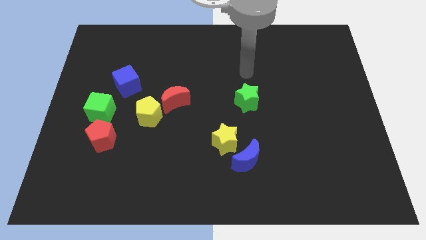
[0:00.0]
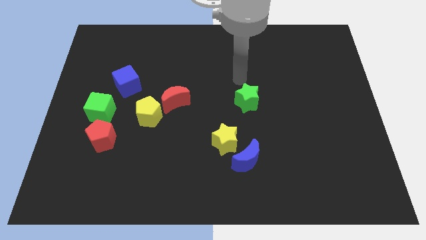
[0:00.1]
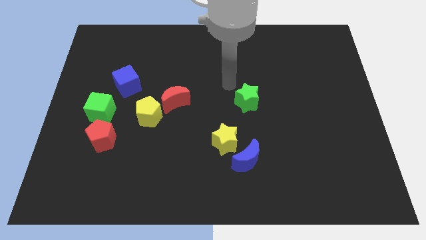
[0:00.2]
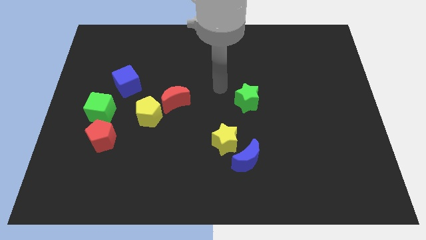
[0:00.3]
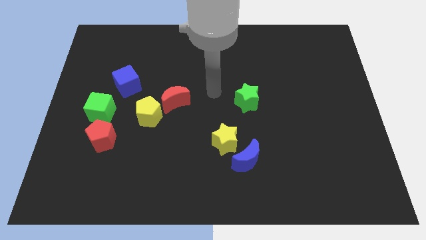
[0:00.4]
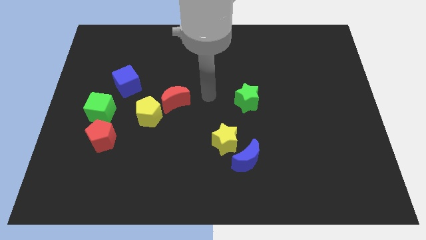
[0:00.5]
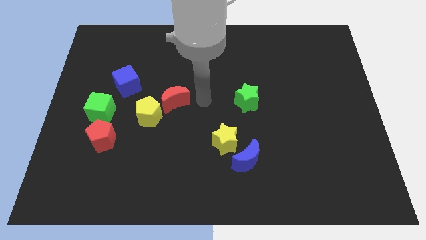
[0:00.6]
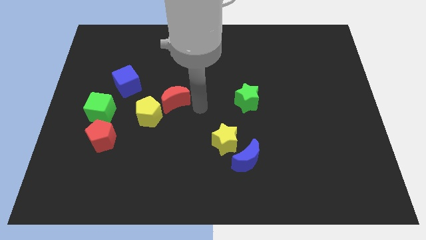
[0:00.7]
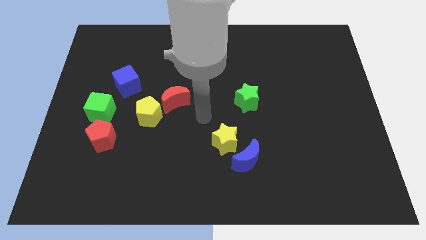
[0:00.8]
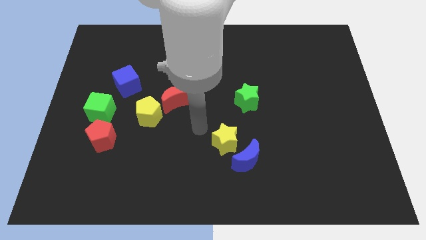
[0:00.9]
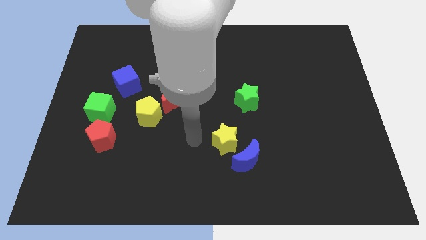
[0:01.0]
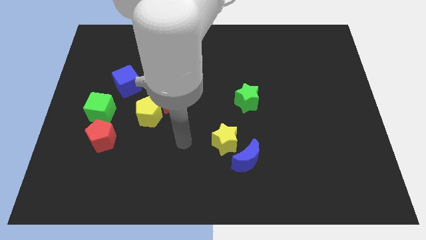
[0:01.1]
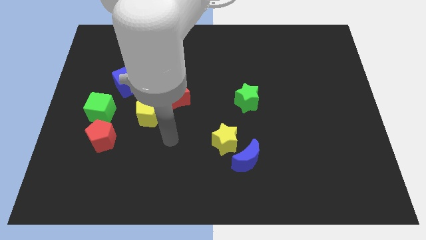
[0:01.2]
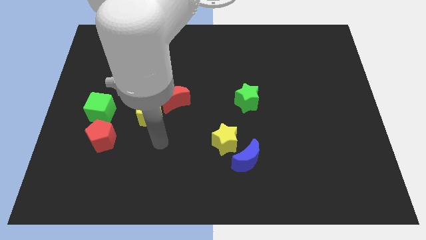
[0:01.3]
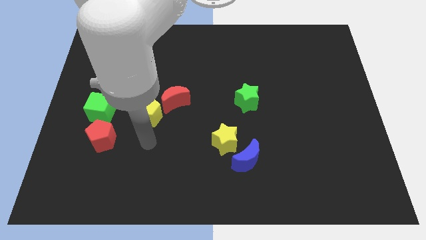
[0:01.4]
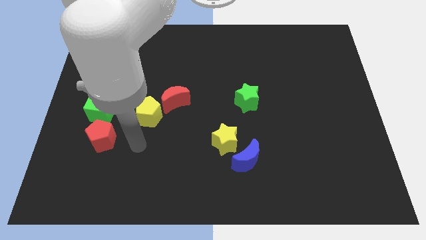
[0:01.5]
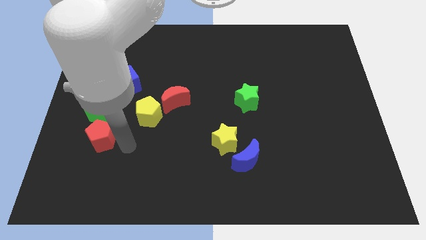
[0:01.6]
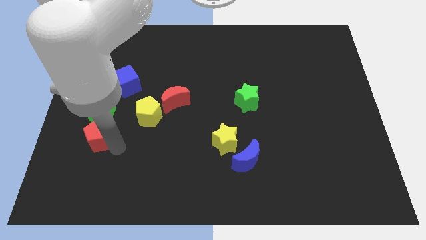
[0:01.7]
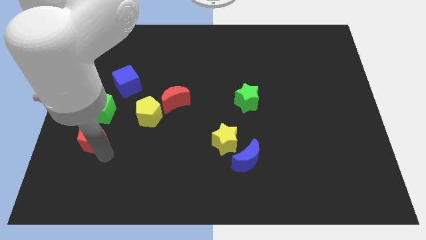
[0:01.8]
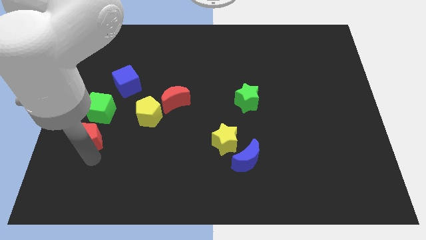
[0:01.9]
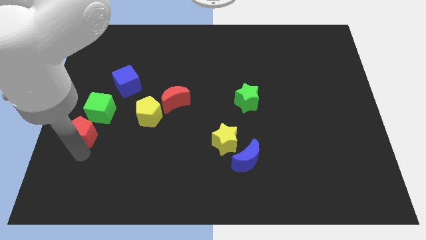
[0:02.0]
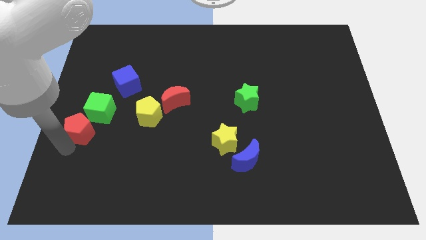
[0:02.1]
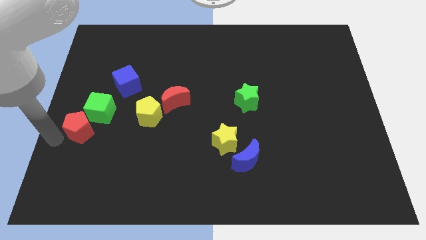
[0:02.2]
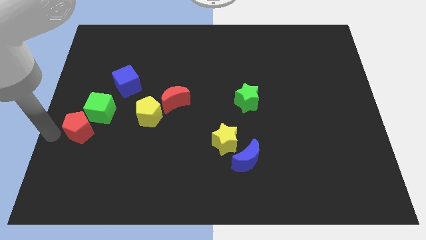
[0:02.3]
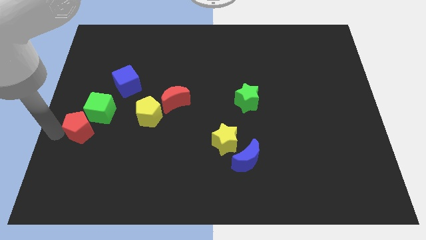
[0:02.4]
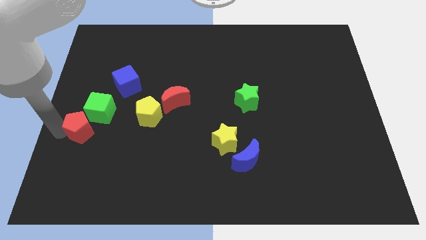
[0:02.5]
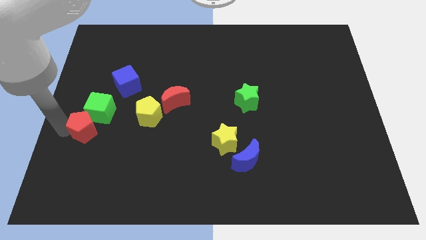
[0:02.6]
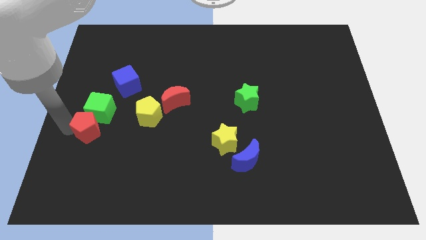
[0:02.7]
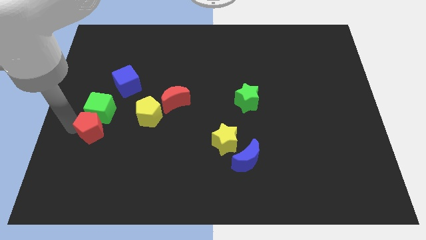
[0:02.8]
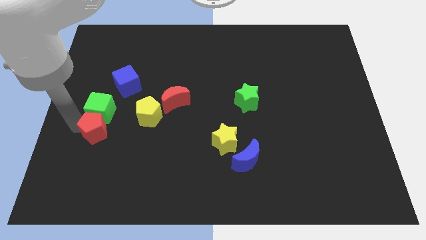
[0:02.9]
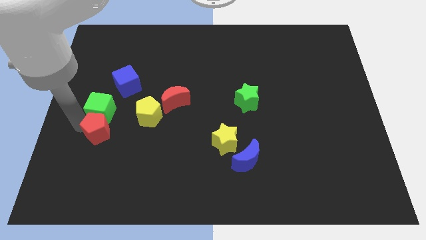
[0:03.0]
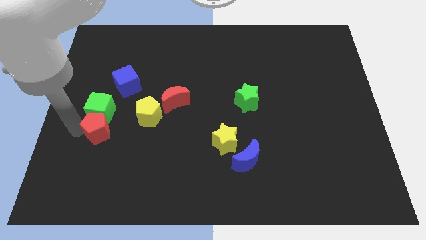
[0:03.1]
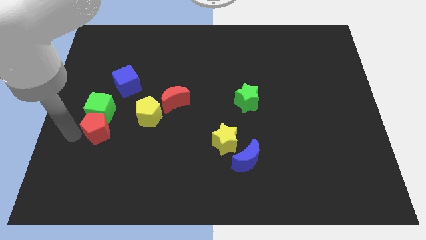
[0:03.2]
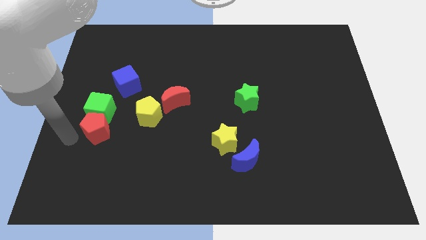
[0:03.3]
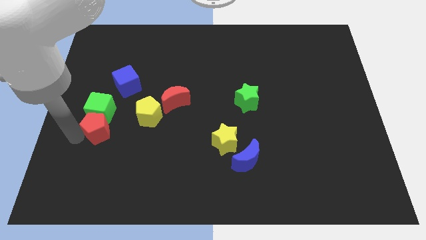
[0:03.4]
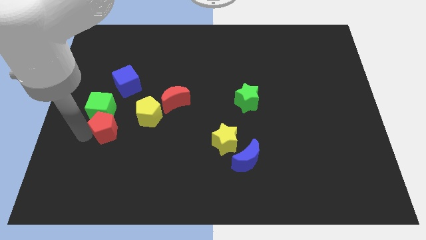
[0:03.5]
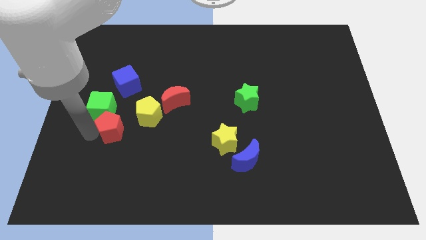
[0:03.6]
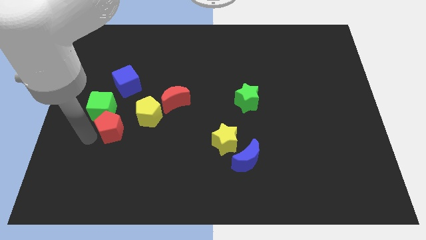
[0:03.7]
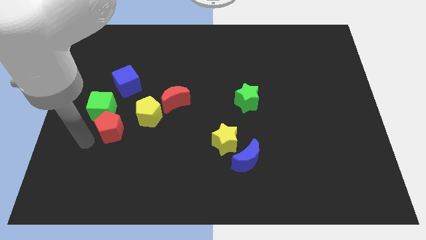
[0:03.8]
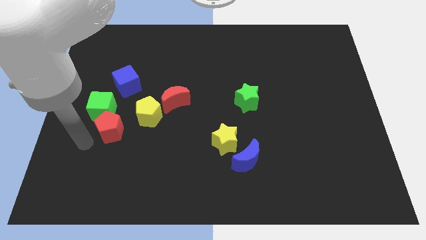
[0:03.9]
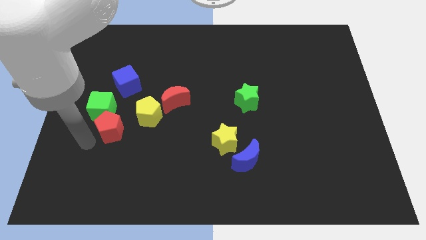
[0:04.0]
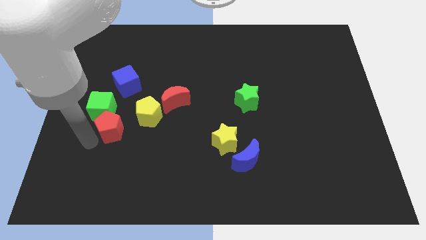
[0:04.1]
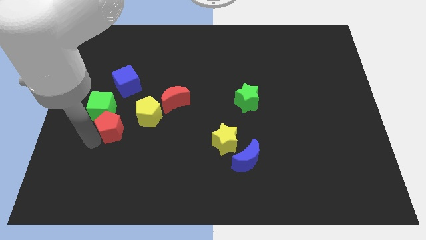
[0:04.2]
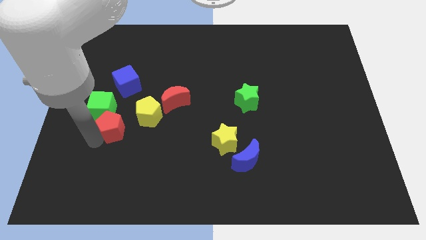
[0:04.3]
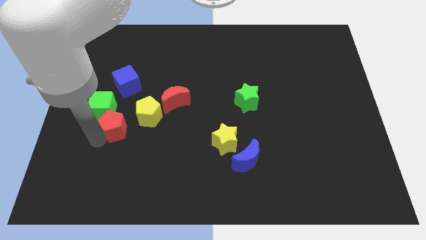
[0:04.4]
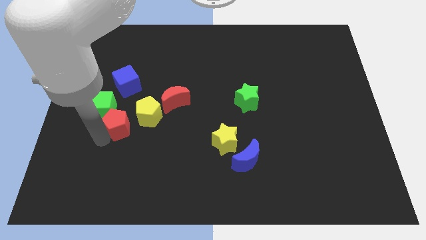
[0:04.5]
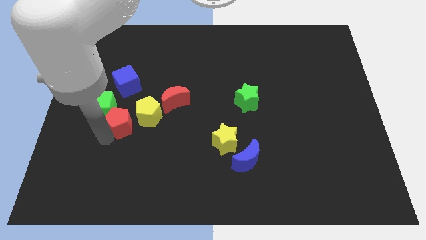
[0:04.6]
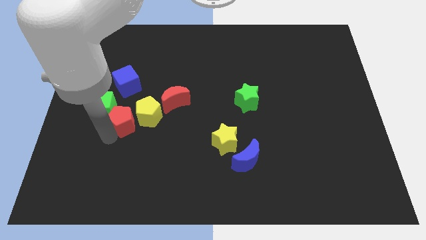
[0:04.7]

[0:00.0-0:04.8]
push the red pentagon to the yellow pentagon

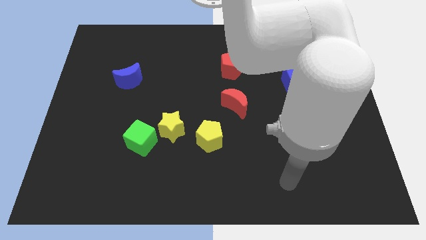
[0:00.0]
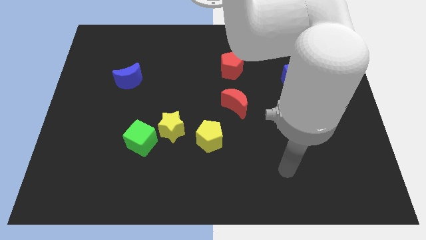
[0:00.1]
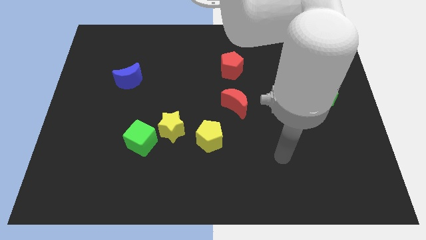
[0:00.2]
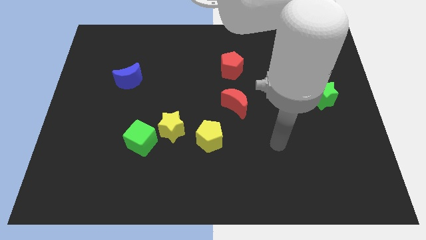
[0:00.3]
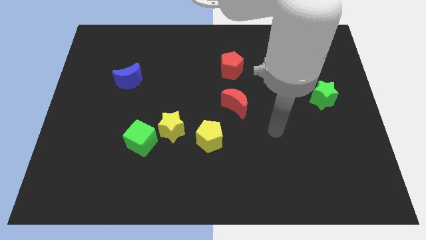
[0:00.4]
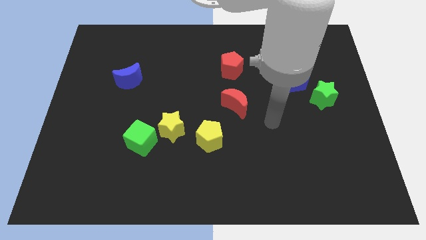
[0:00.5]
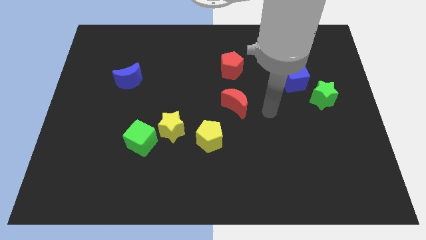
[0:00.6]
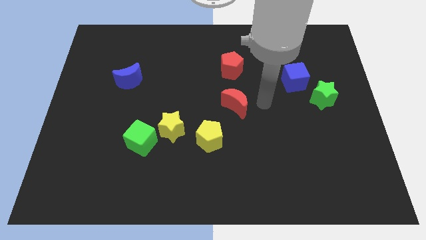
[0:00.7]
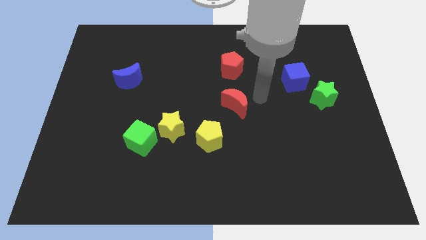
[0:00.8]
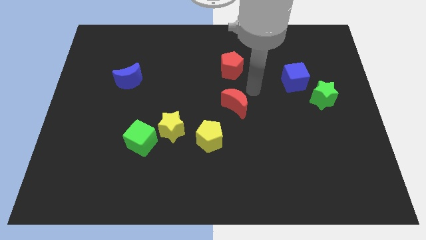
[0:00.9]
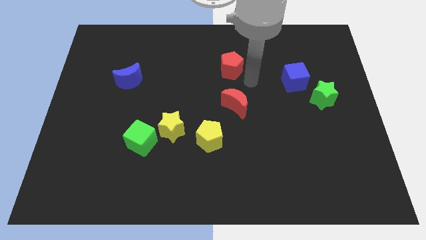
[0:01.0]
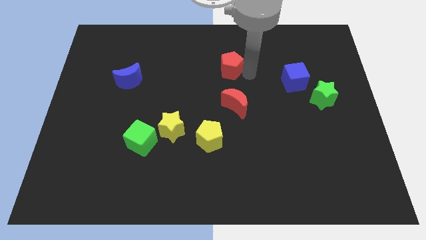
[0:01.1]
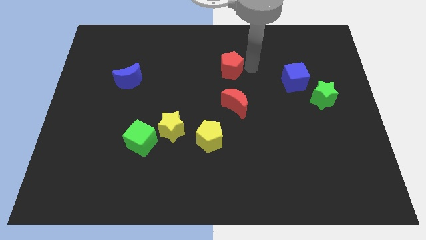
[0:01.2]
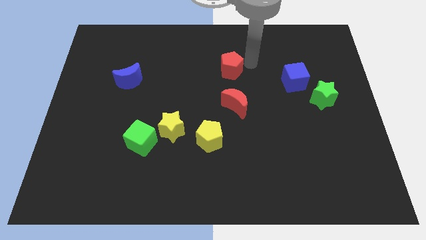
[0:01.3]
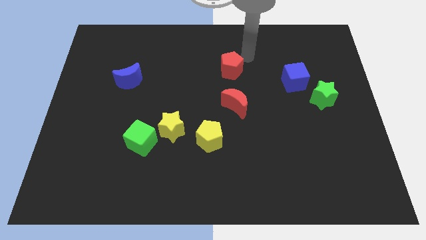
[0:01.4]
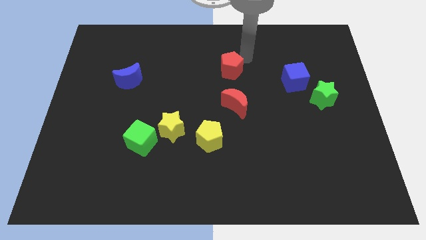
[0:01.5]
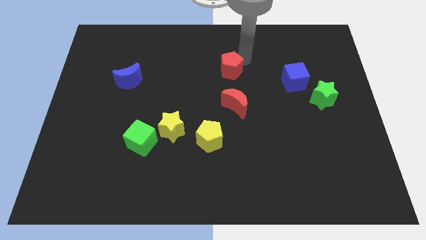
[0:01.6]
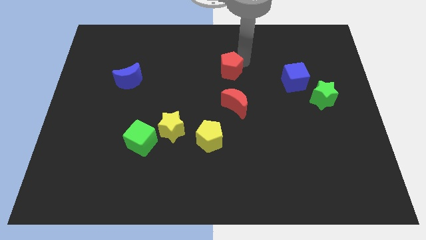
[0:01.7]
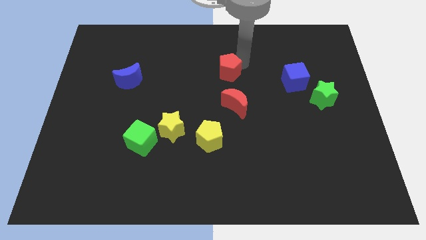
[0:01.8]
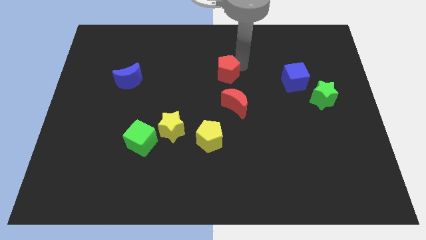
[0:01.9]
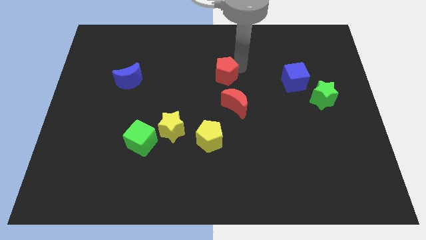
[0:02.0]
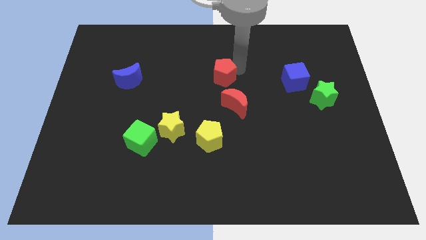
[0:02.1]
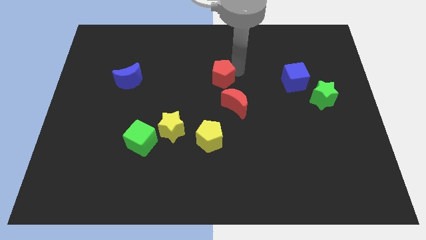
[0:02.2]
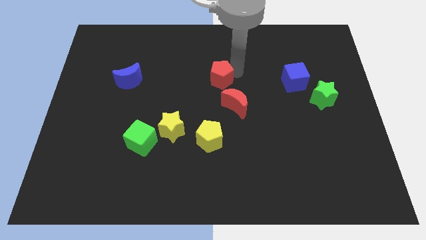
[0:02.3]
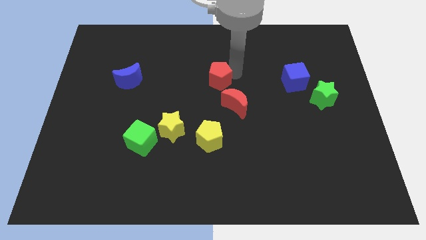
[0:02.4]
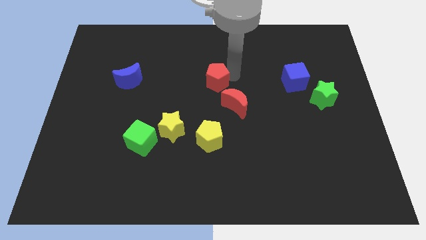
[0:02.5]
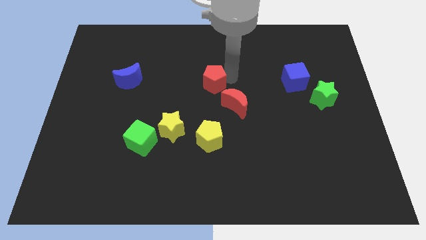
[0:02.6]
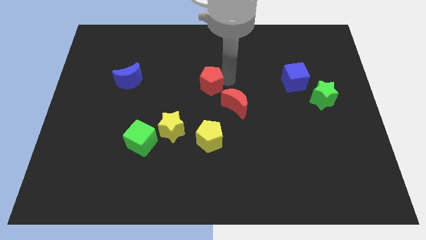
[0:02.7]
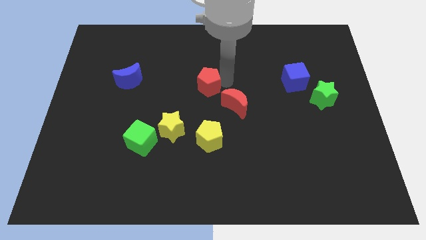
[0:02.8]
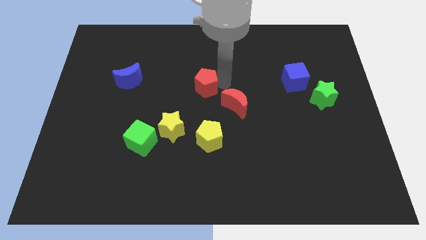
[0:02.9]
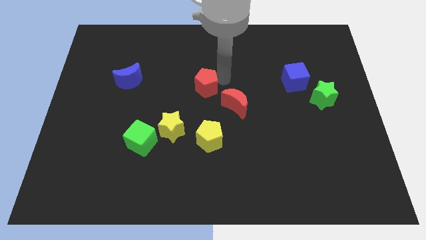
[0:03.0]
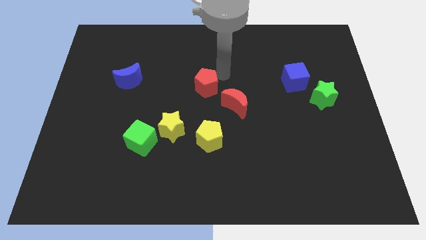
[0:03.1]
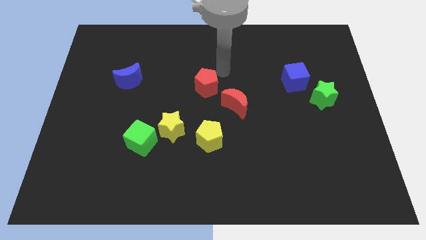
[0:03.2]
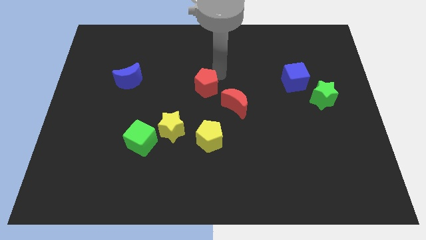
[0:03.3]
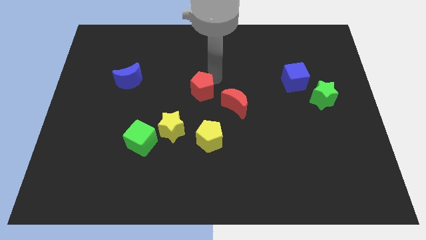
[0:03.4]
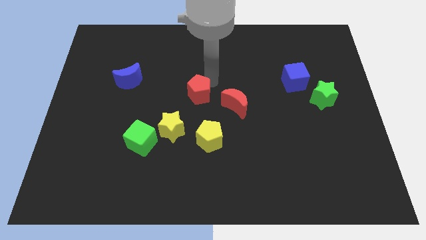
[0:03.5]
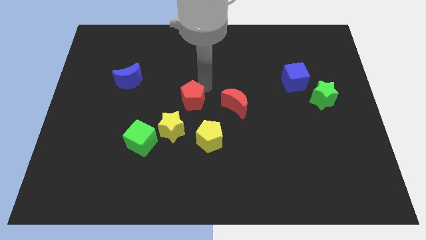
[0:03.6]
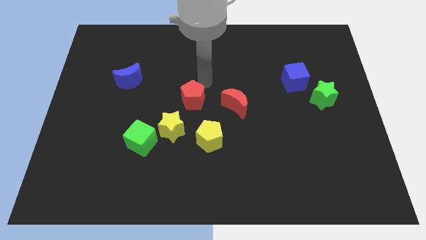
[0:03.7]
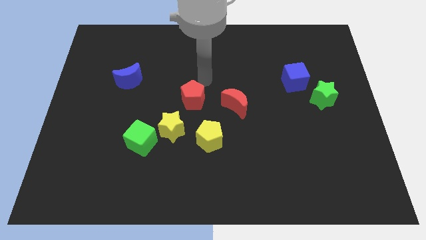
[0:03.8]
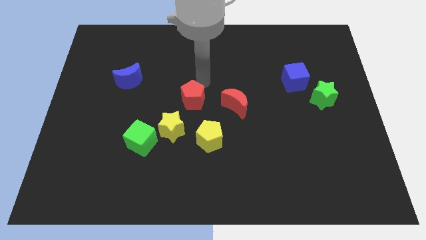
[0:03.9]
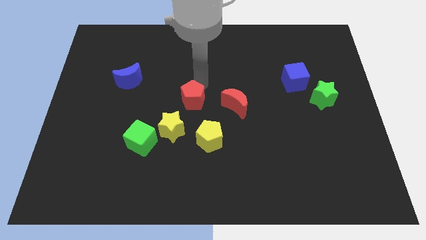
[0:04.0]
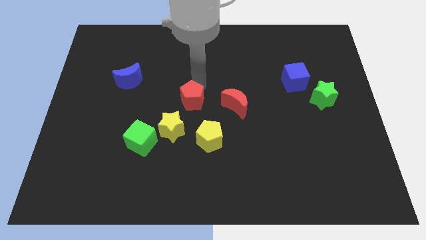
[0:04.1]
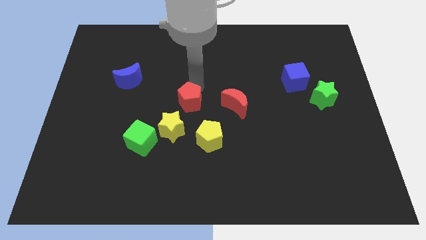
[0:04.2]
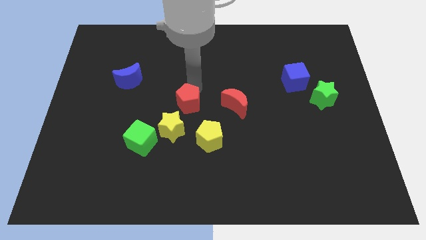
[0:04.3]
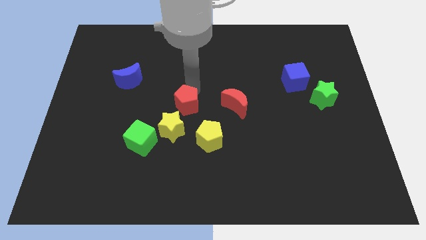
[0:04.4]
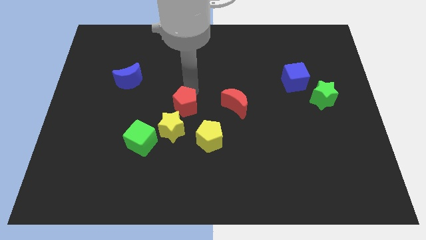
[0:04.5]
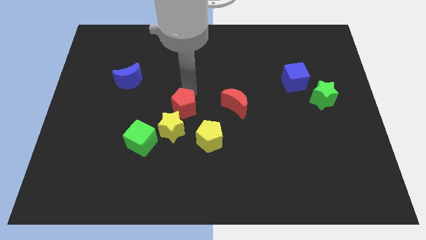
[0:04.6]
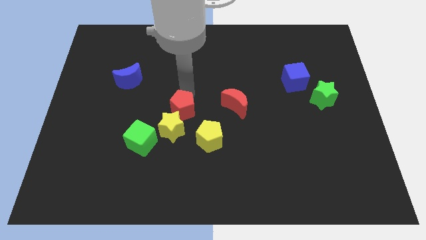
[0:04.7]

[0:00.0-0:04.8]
slide the red pentagon next to the yellow star
